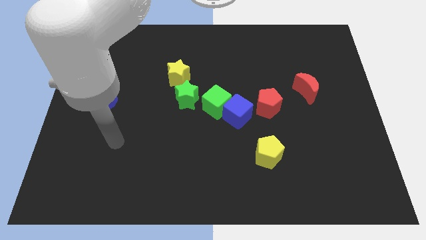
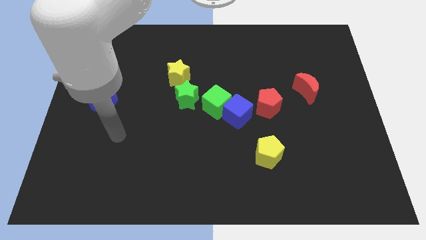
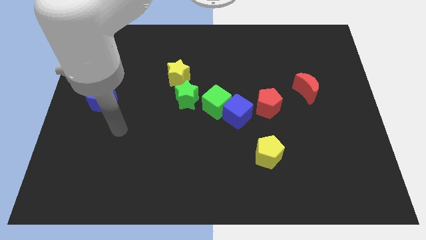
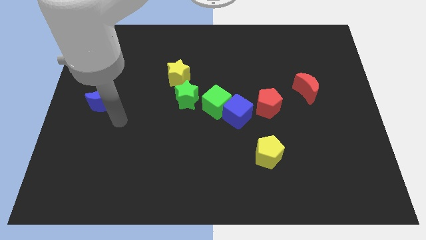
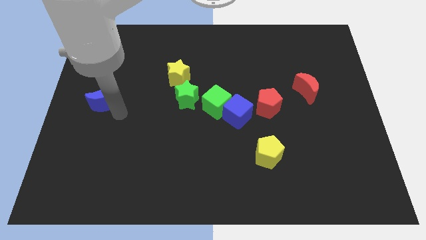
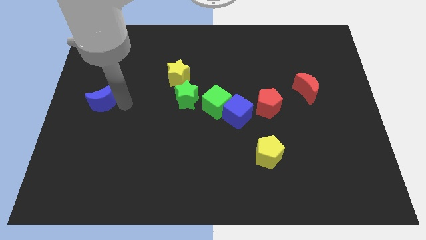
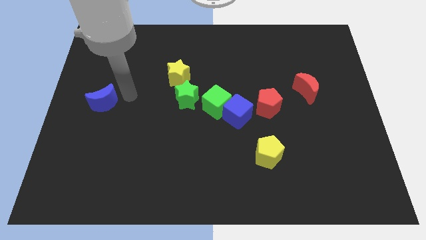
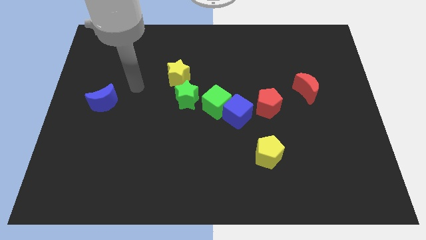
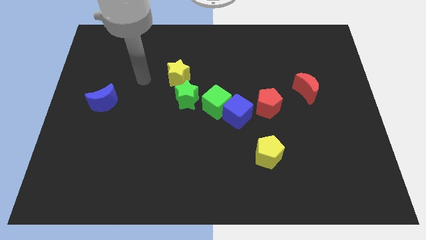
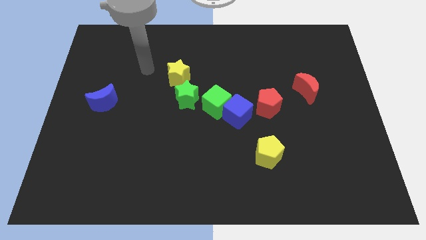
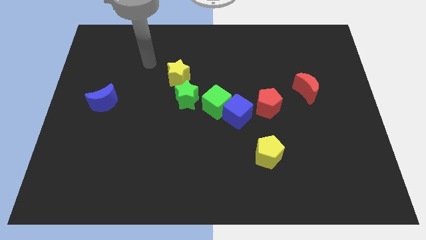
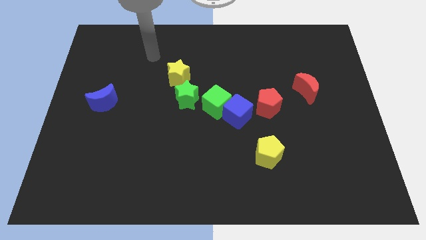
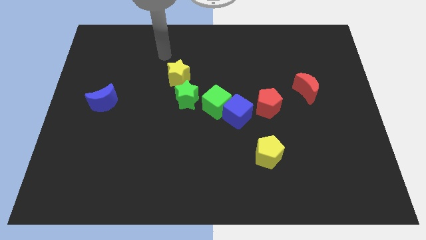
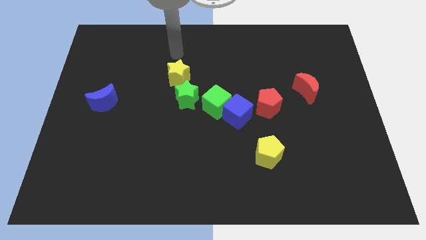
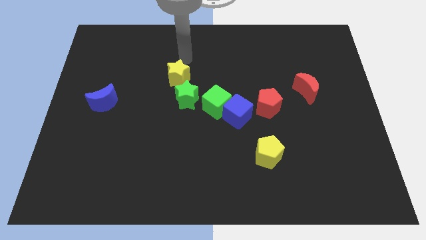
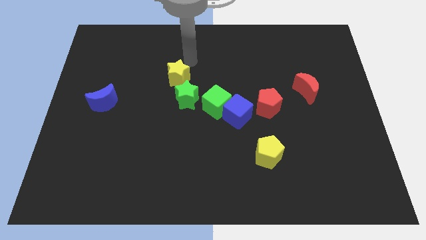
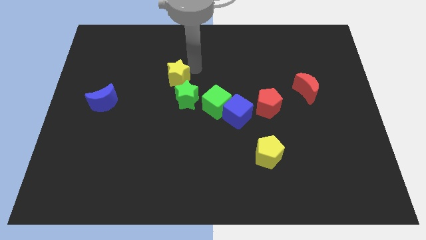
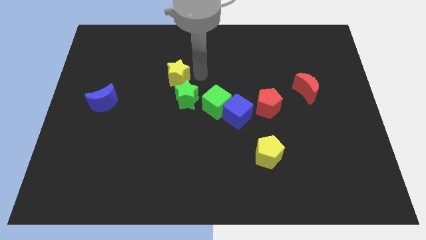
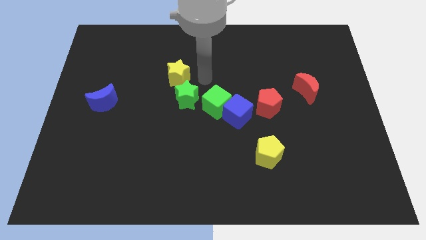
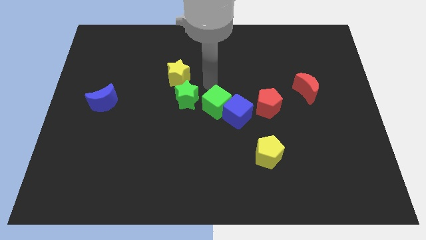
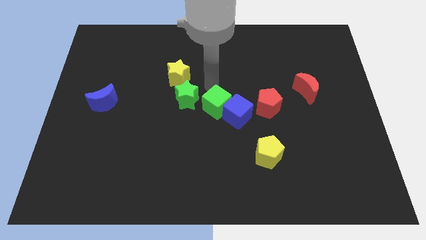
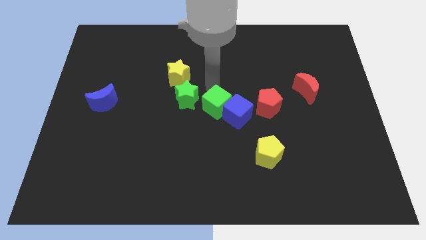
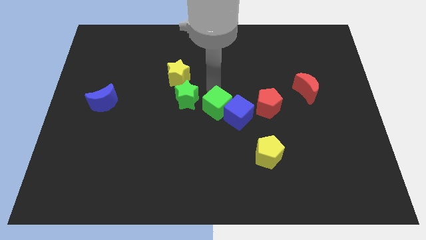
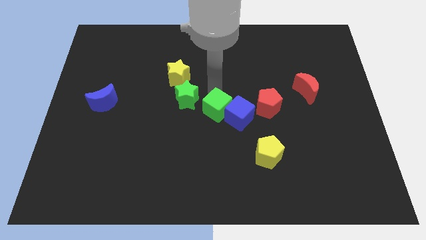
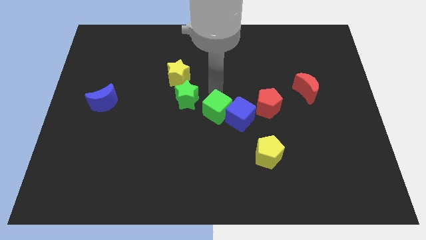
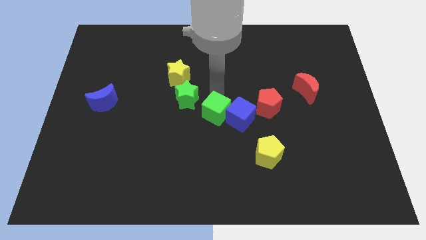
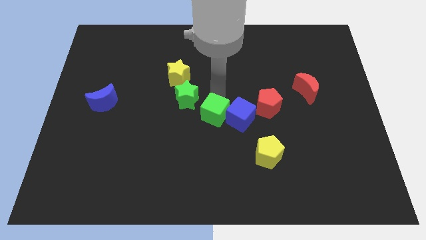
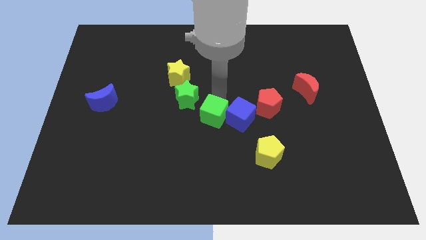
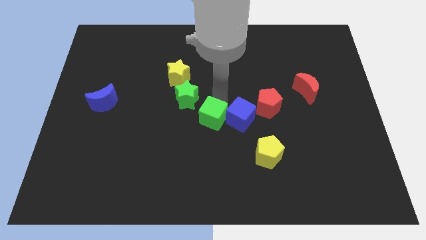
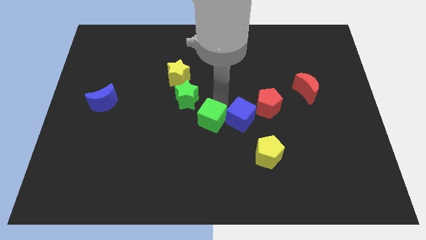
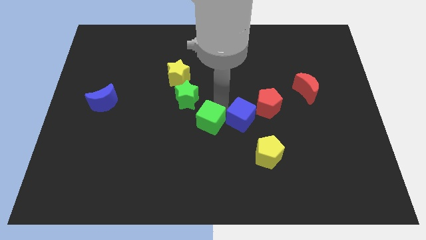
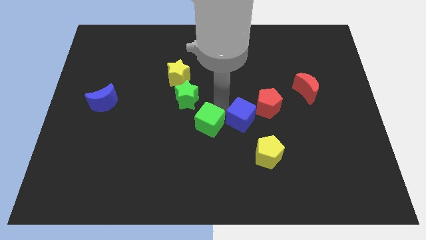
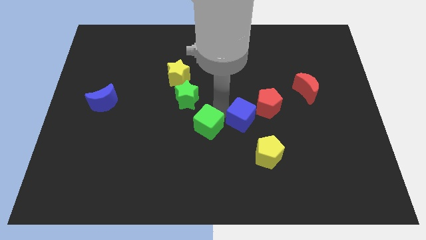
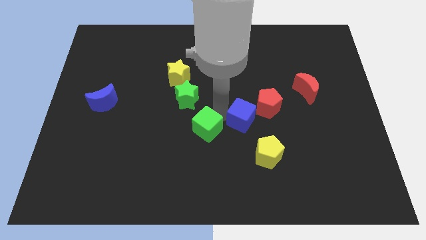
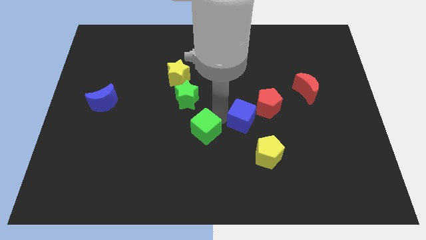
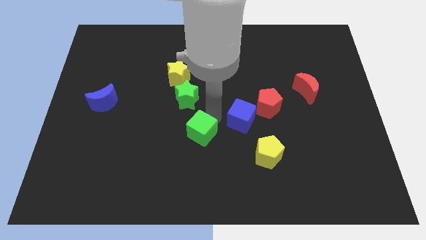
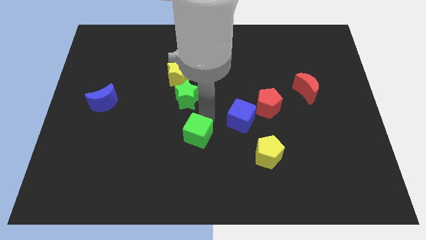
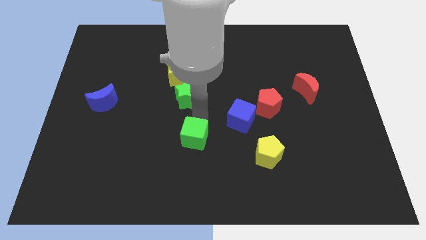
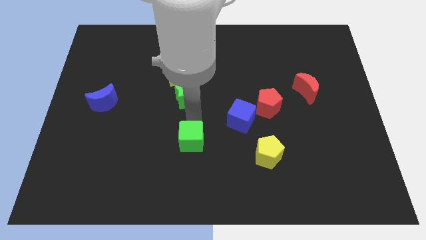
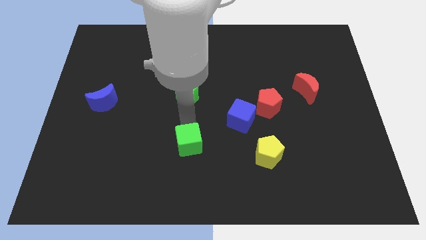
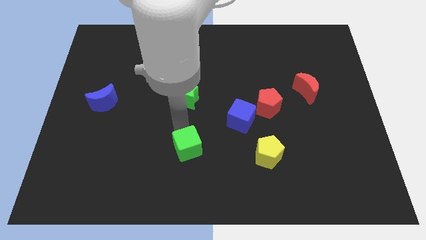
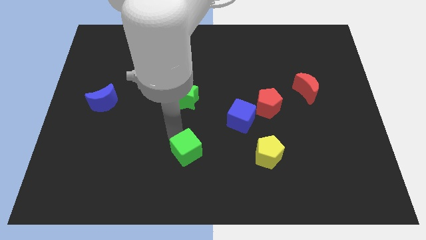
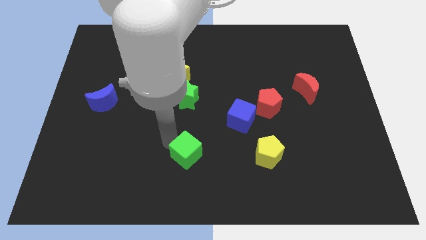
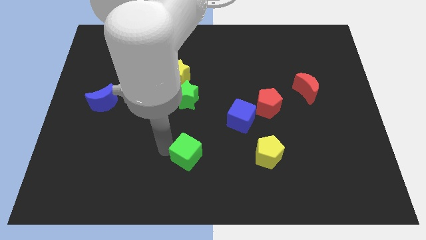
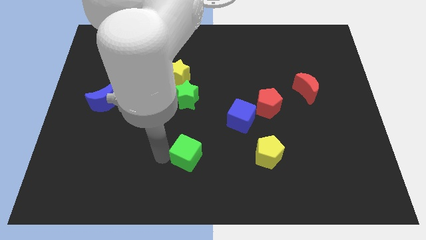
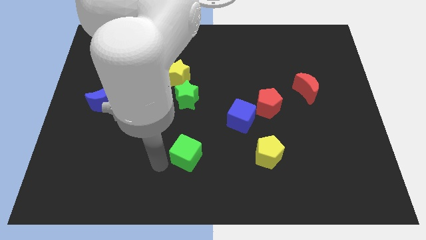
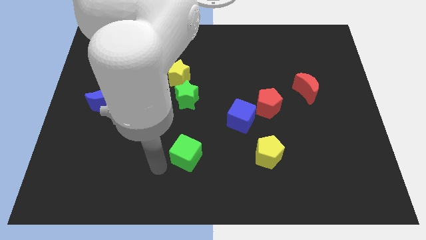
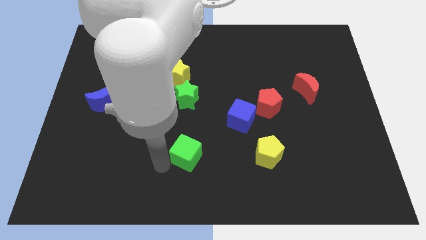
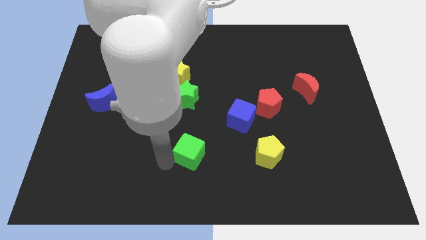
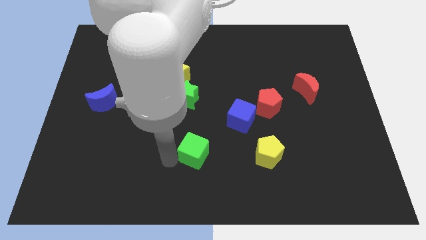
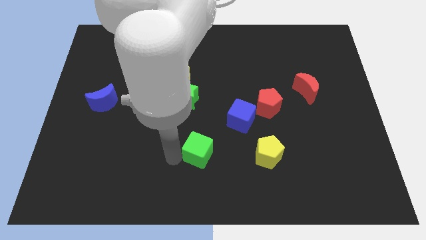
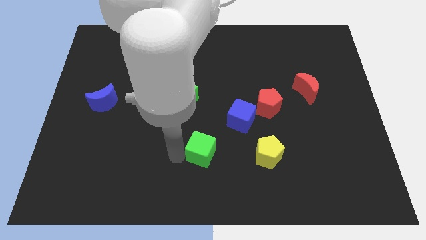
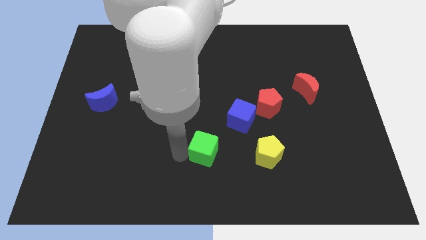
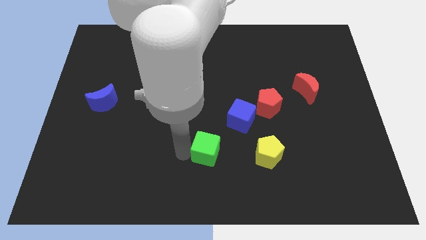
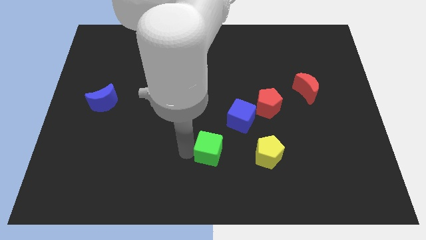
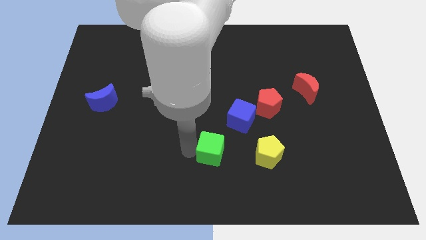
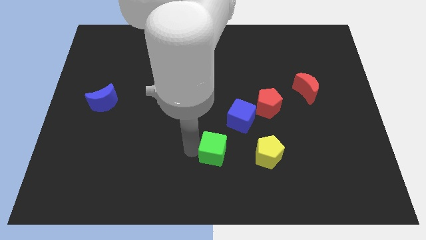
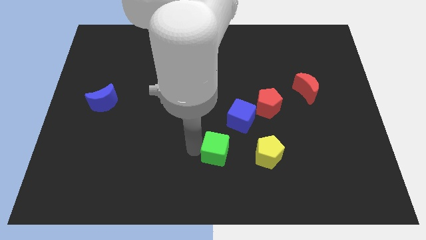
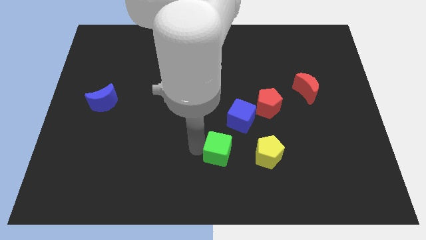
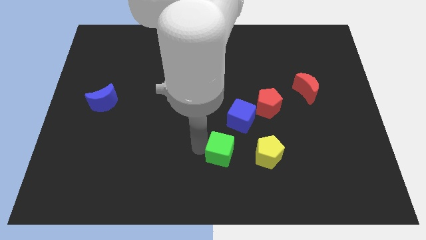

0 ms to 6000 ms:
push the green cube to the bottom side of the blue cube

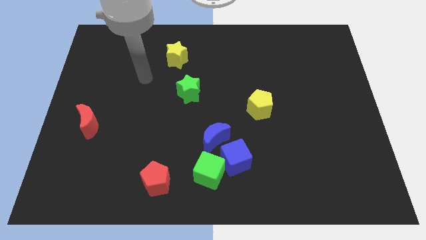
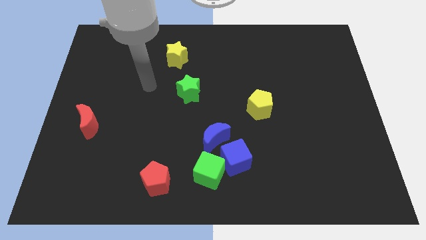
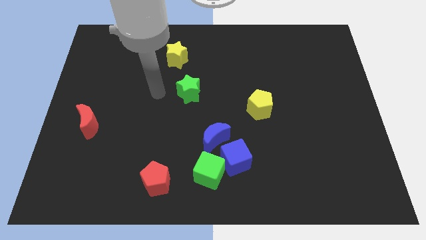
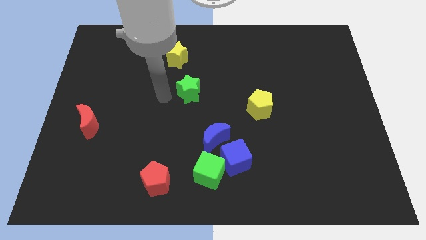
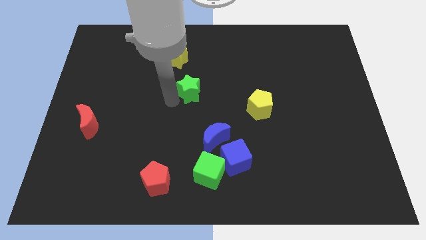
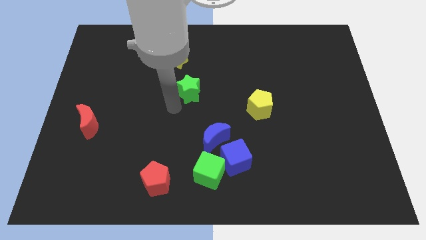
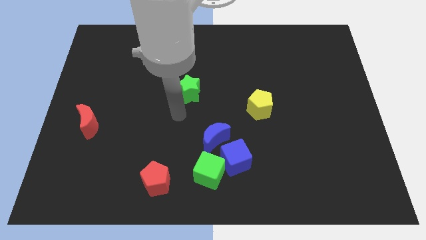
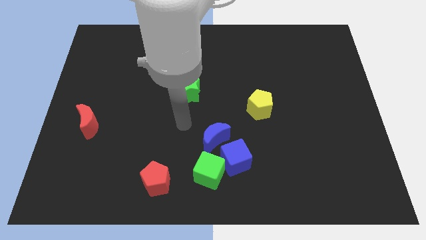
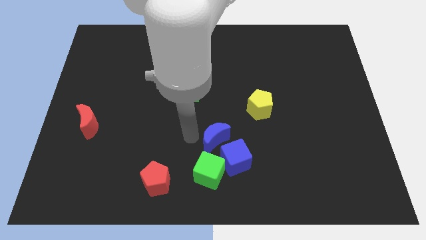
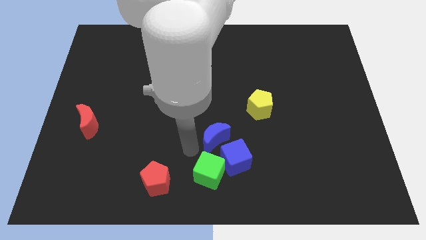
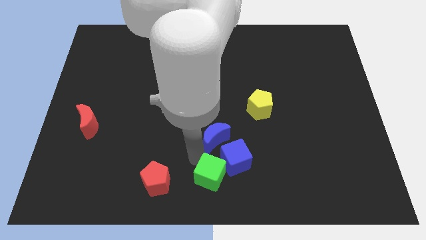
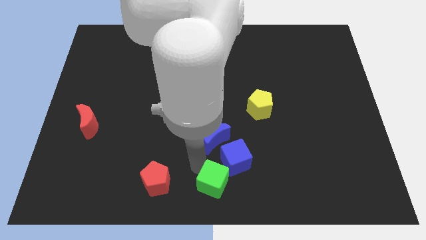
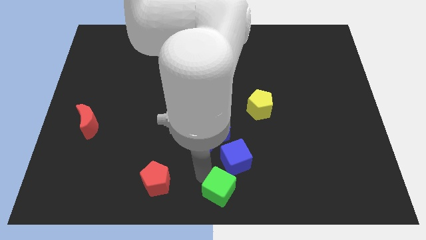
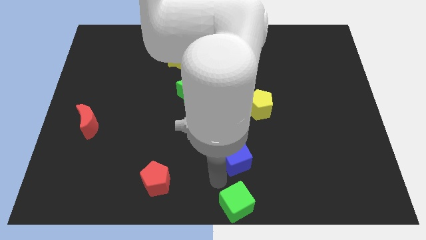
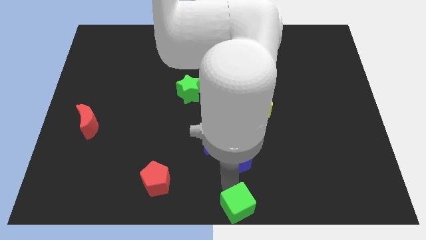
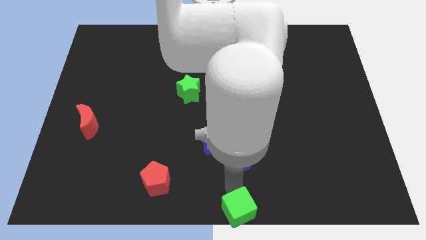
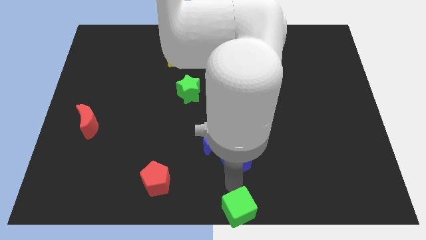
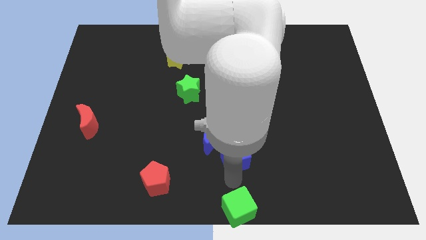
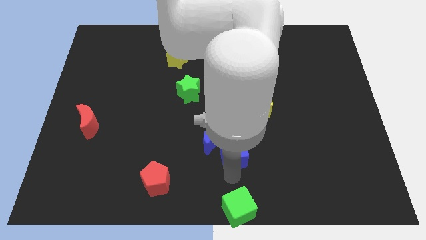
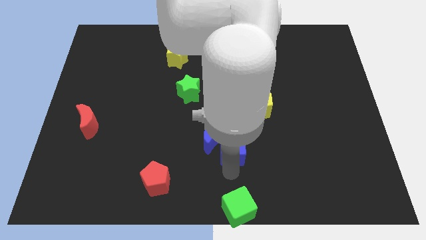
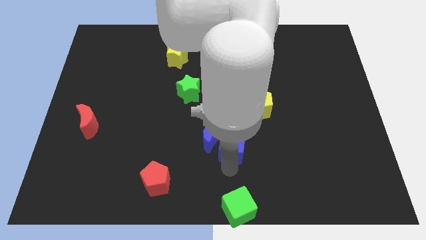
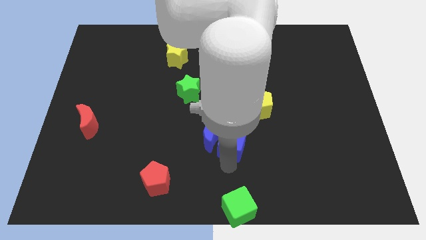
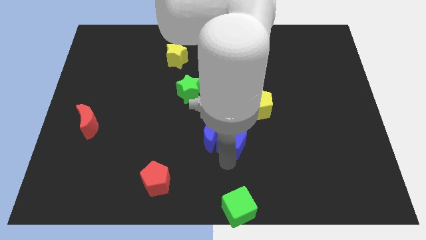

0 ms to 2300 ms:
put the blue cube to the bottom left side of the yellow pentagon
